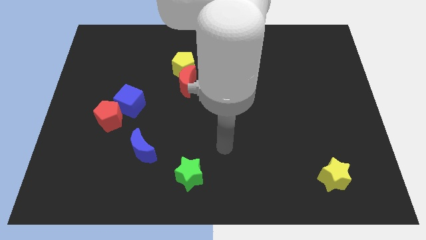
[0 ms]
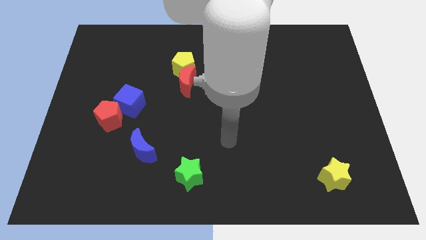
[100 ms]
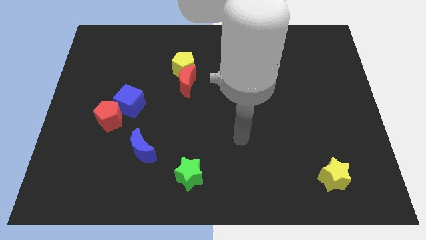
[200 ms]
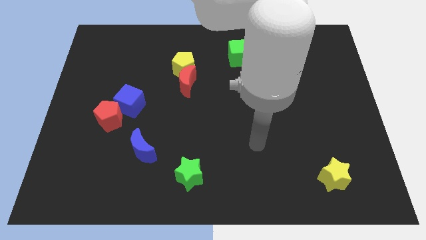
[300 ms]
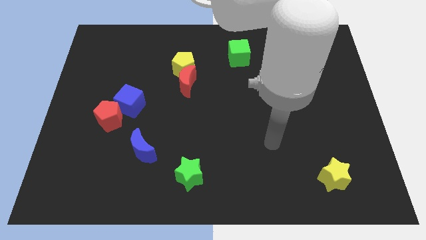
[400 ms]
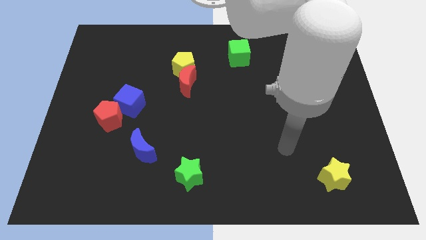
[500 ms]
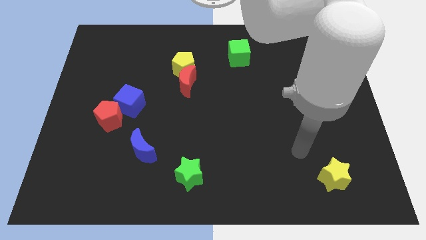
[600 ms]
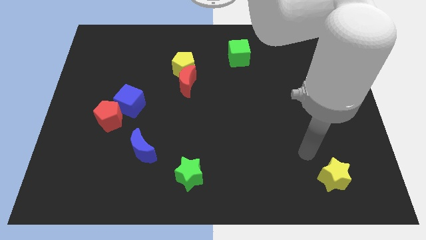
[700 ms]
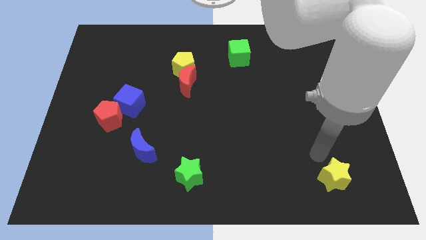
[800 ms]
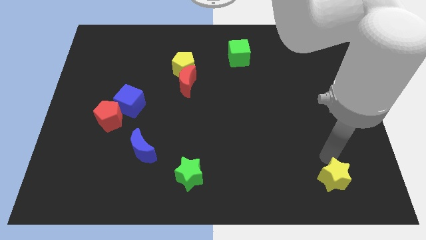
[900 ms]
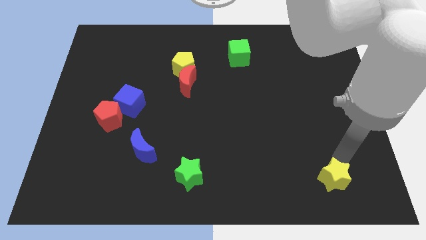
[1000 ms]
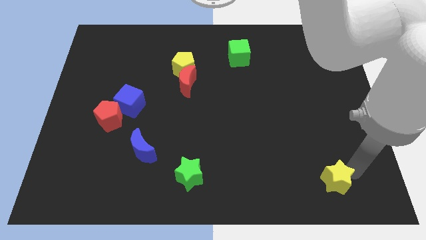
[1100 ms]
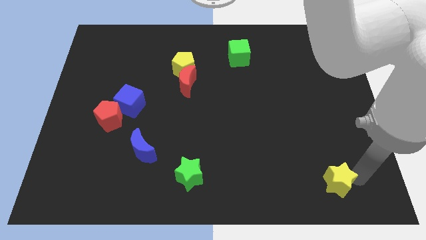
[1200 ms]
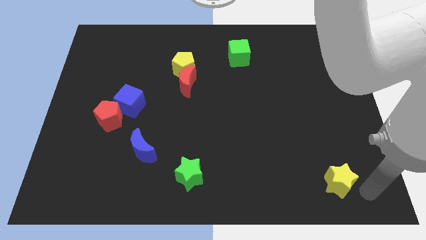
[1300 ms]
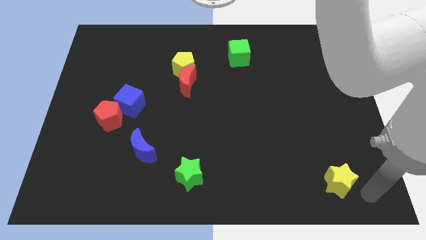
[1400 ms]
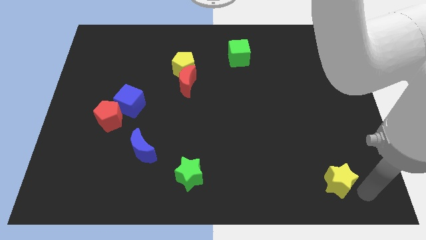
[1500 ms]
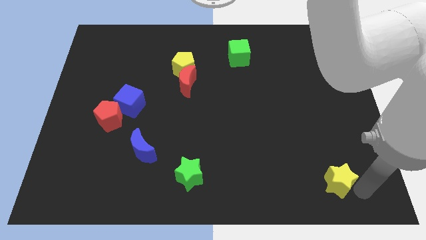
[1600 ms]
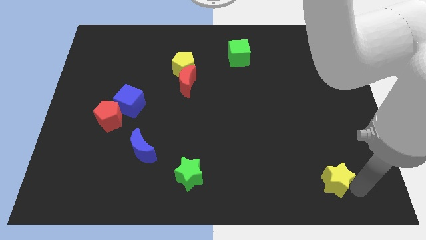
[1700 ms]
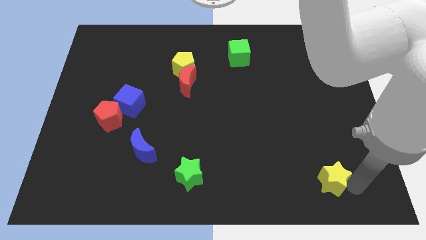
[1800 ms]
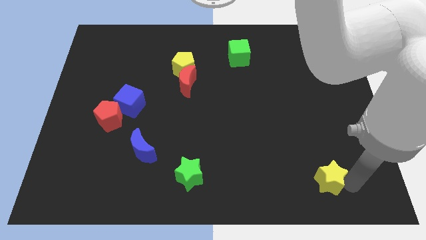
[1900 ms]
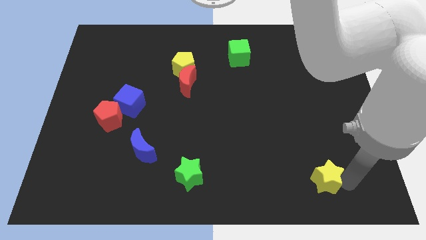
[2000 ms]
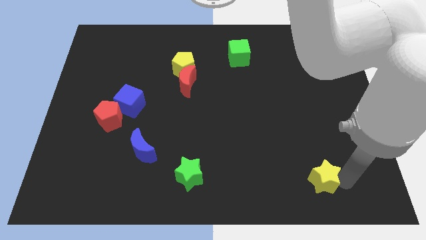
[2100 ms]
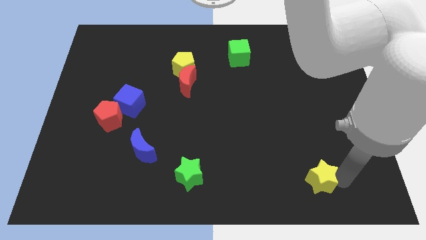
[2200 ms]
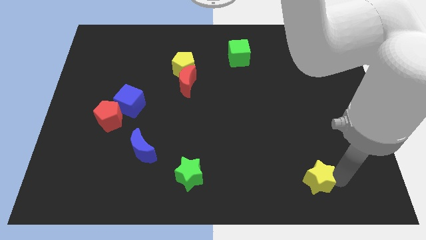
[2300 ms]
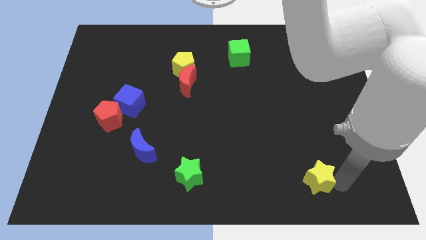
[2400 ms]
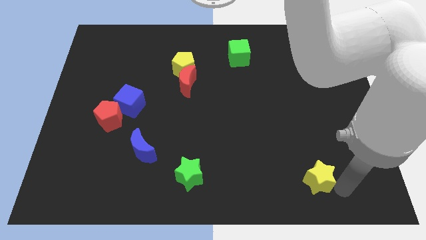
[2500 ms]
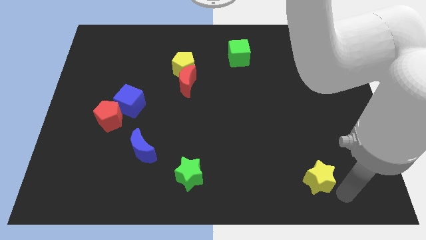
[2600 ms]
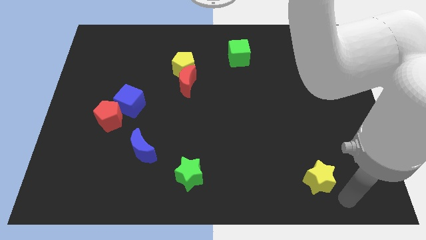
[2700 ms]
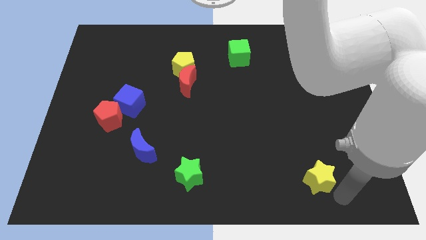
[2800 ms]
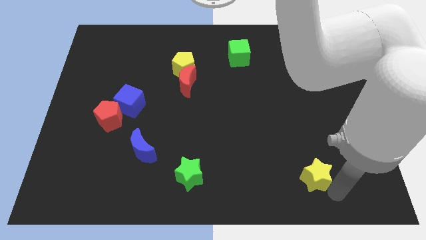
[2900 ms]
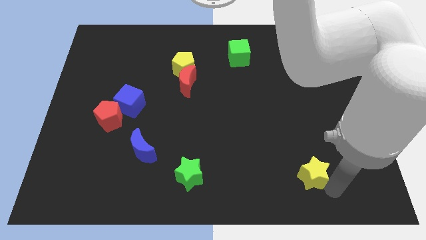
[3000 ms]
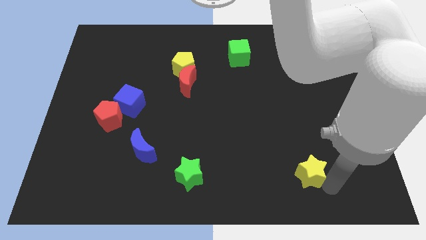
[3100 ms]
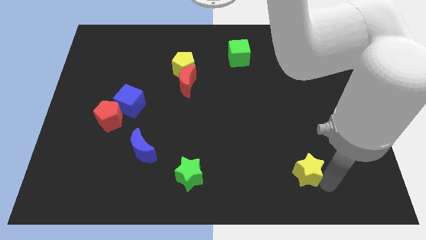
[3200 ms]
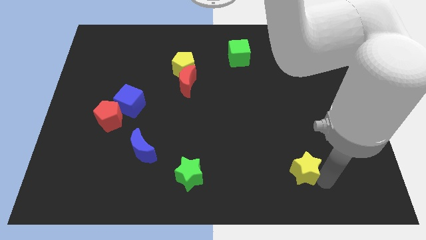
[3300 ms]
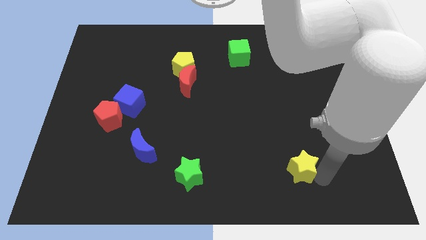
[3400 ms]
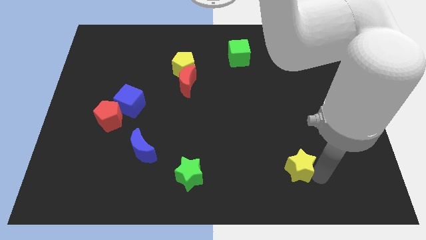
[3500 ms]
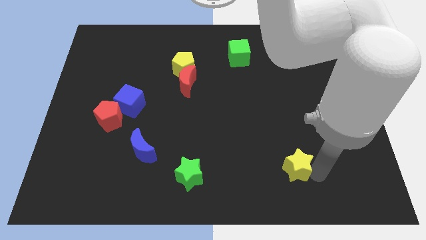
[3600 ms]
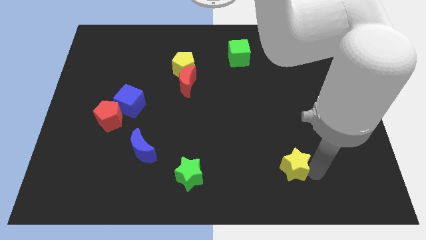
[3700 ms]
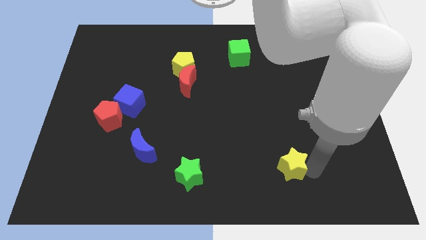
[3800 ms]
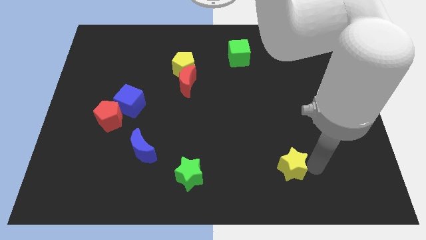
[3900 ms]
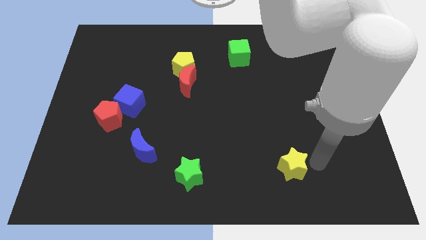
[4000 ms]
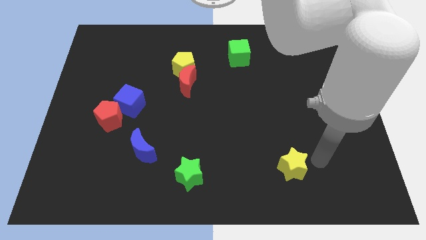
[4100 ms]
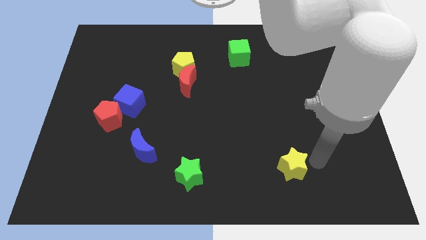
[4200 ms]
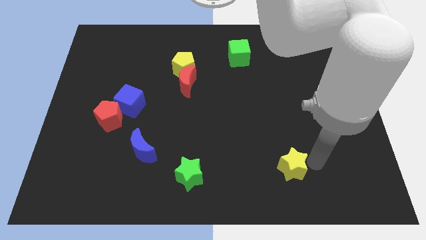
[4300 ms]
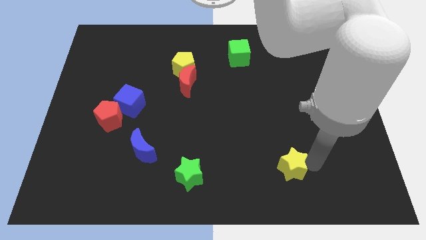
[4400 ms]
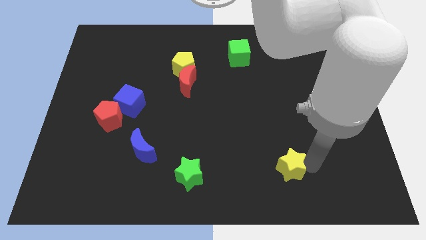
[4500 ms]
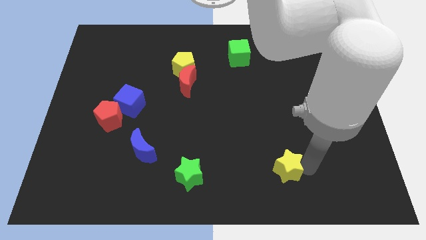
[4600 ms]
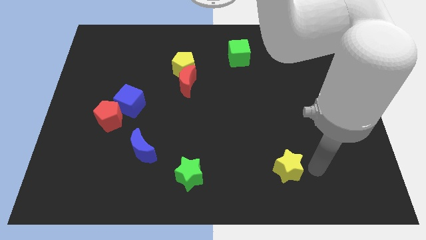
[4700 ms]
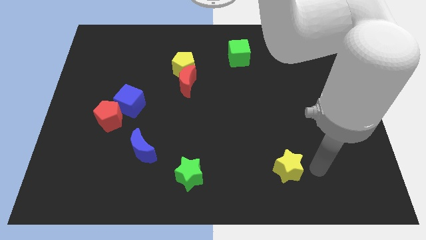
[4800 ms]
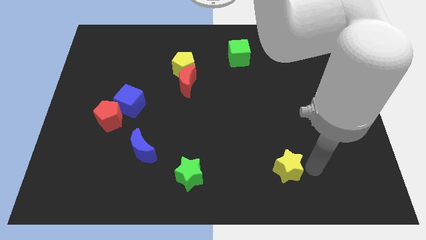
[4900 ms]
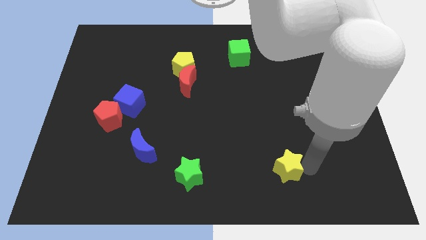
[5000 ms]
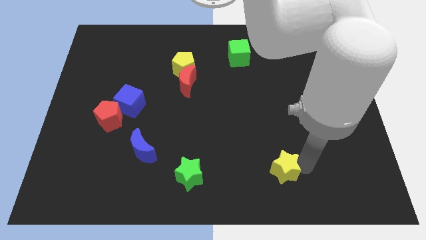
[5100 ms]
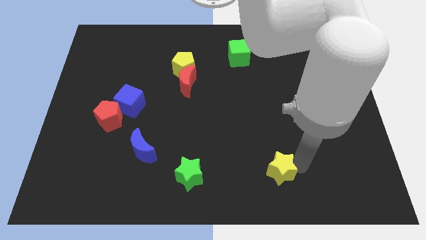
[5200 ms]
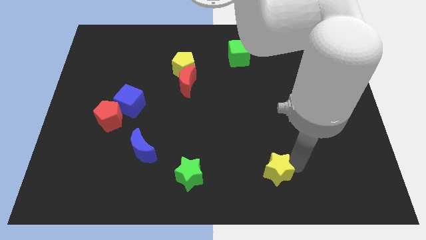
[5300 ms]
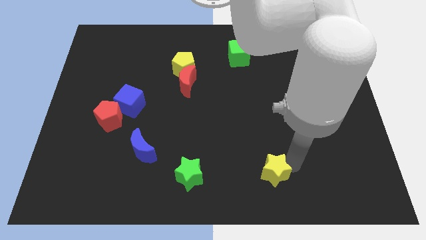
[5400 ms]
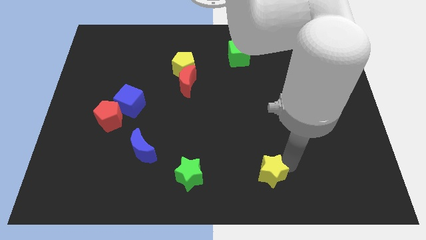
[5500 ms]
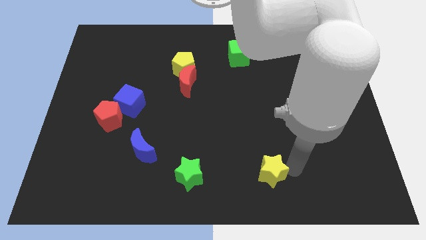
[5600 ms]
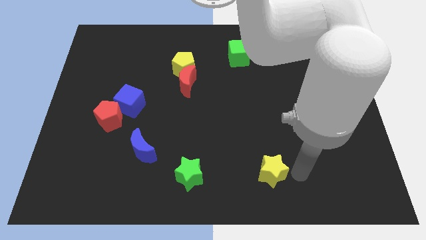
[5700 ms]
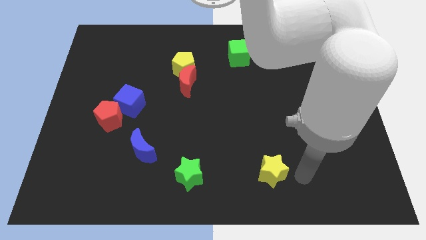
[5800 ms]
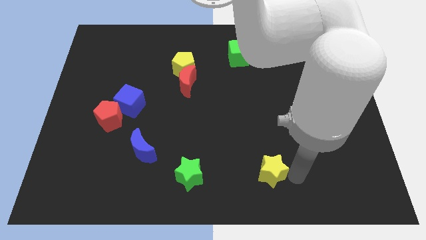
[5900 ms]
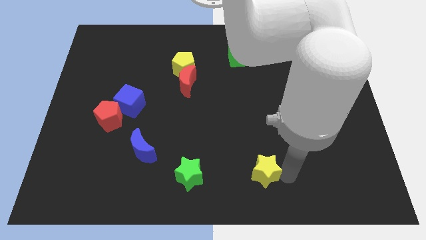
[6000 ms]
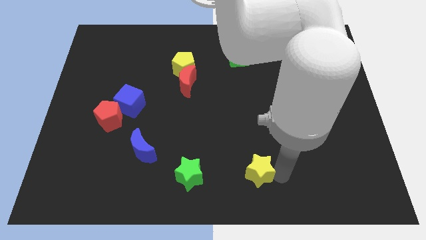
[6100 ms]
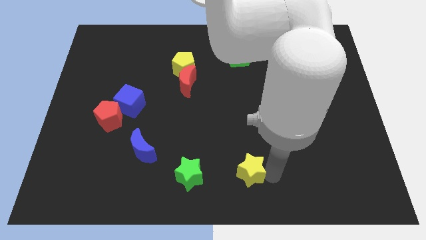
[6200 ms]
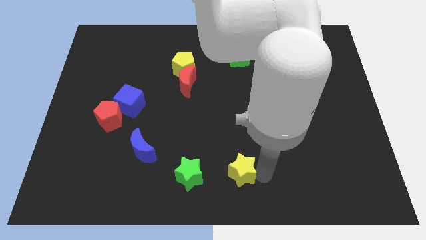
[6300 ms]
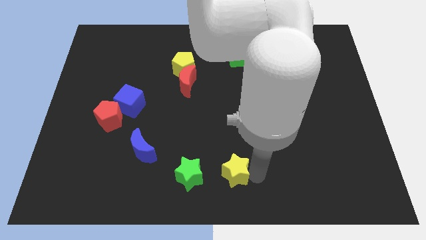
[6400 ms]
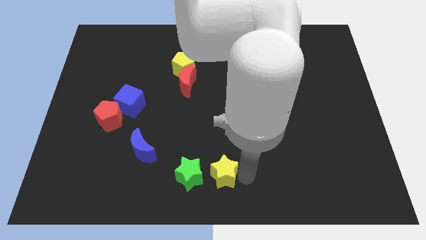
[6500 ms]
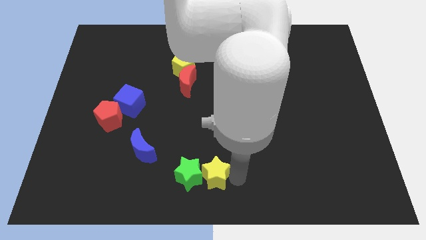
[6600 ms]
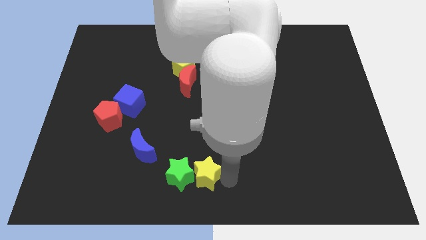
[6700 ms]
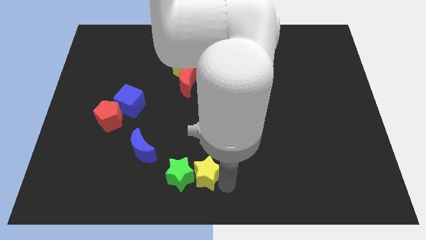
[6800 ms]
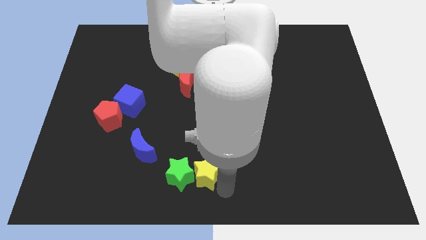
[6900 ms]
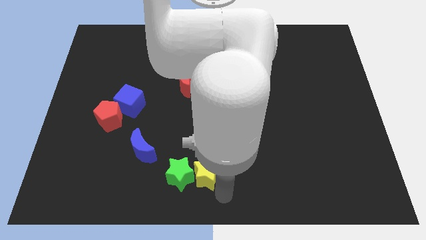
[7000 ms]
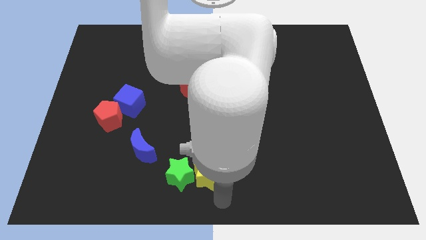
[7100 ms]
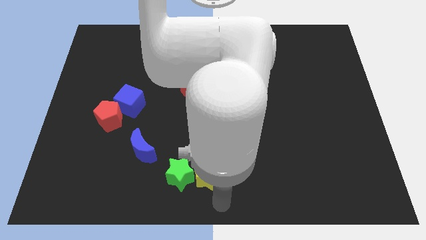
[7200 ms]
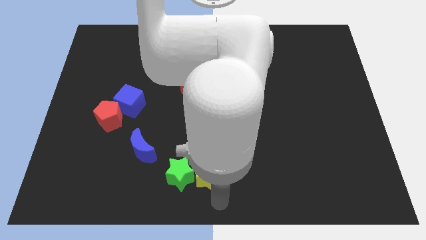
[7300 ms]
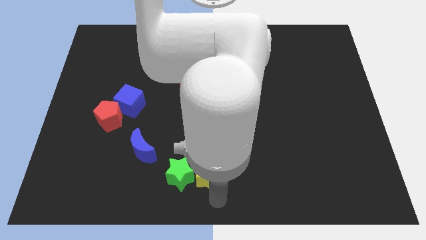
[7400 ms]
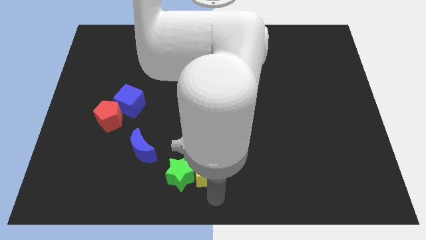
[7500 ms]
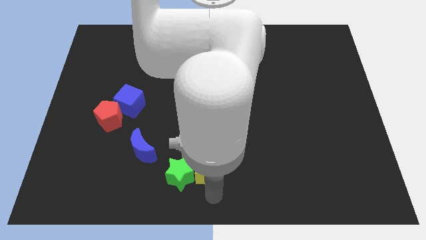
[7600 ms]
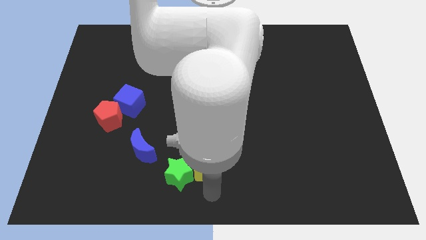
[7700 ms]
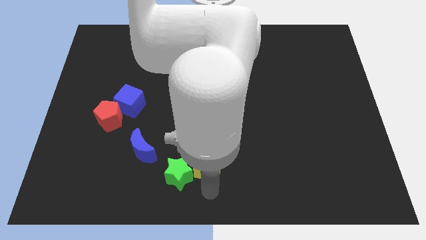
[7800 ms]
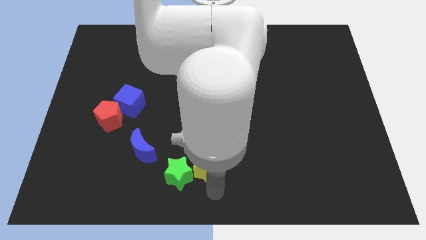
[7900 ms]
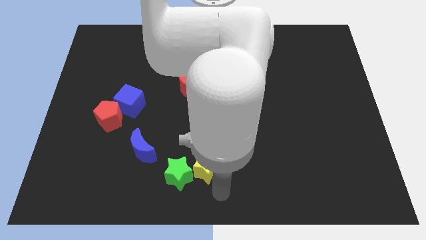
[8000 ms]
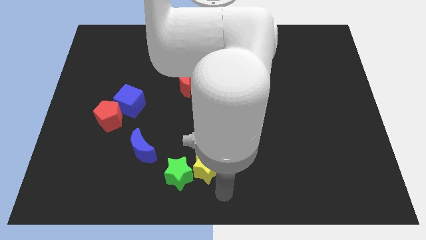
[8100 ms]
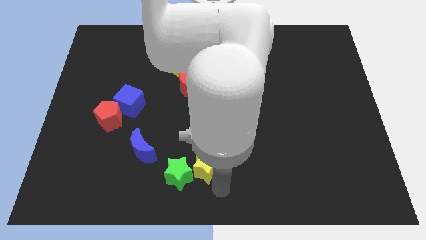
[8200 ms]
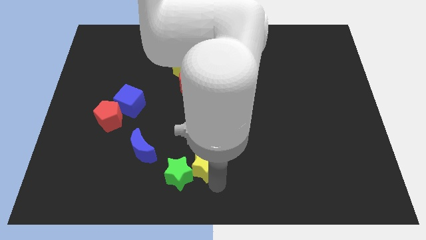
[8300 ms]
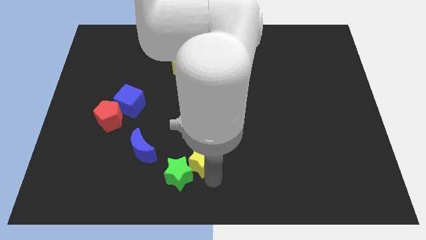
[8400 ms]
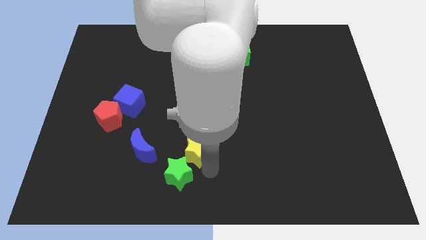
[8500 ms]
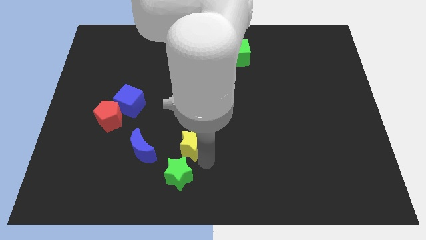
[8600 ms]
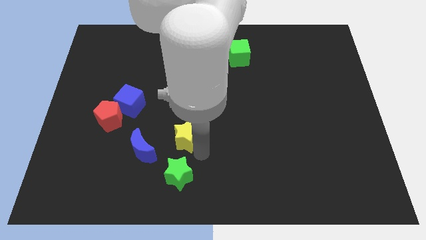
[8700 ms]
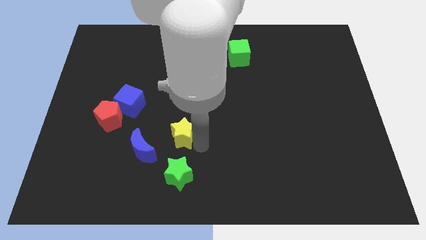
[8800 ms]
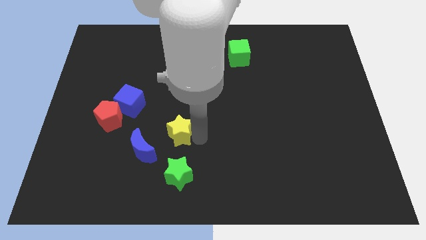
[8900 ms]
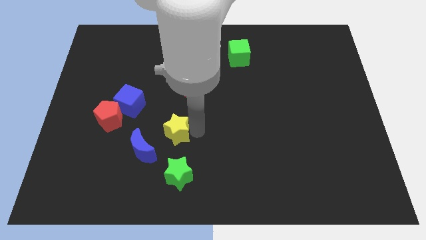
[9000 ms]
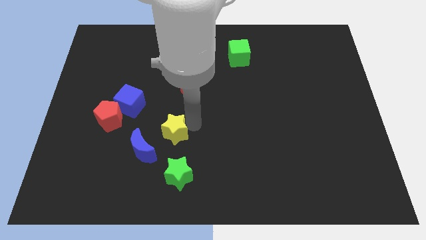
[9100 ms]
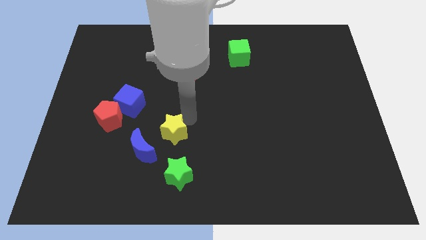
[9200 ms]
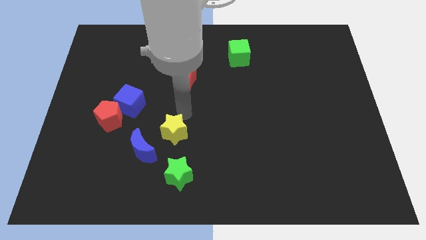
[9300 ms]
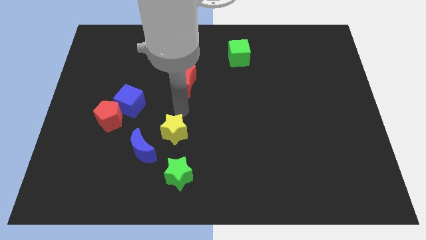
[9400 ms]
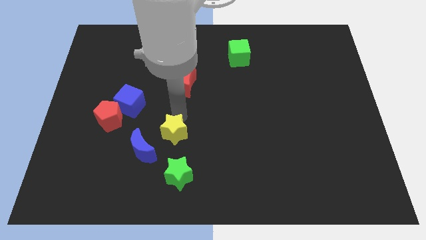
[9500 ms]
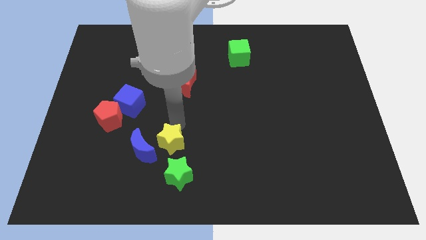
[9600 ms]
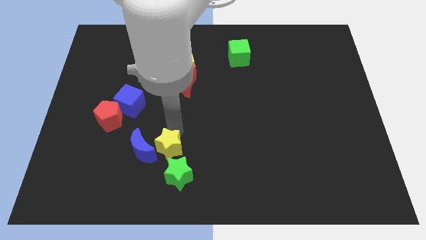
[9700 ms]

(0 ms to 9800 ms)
push the yellow star to the bottom right of the blue moon
